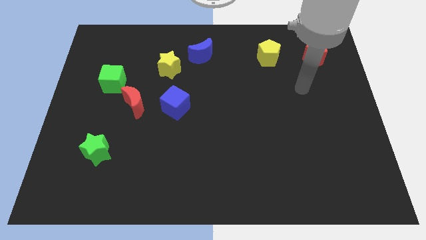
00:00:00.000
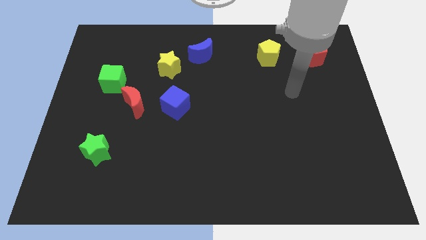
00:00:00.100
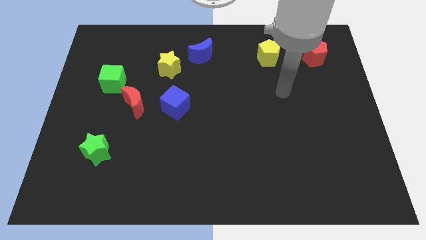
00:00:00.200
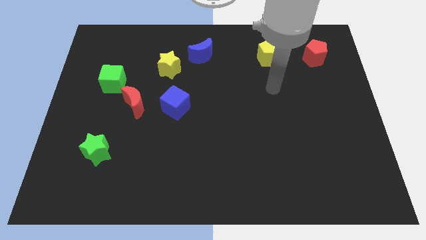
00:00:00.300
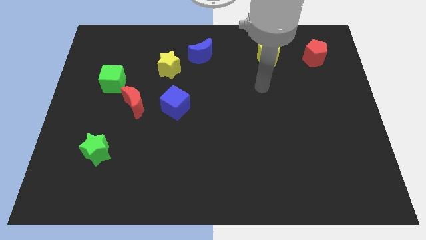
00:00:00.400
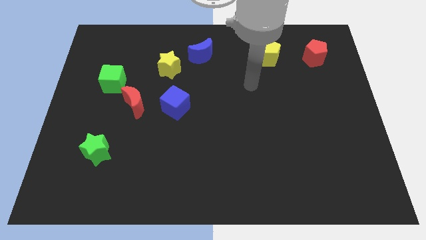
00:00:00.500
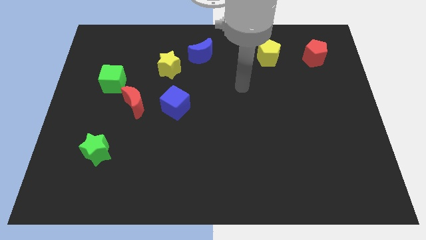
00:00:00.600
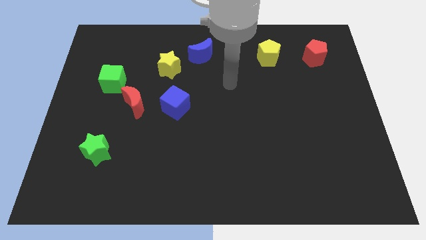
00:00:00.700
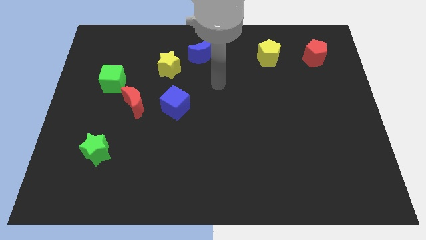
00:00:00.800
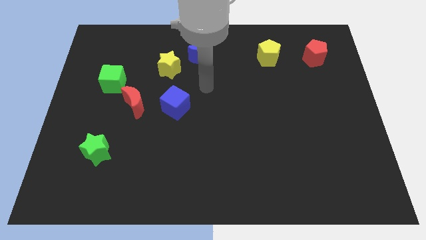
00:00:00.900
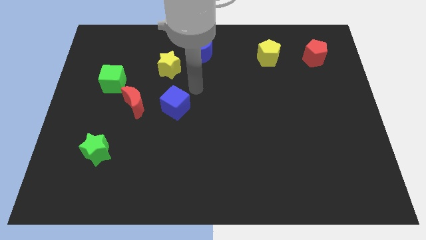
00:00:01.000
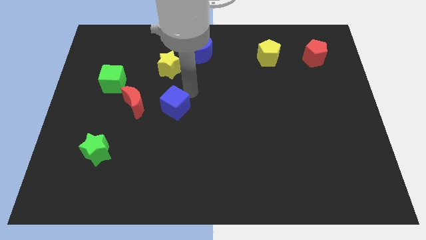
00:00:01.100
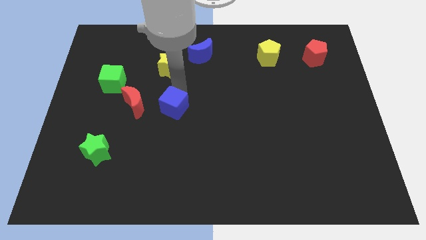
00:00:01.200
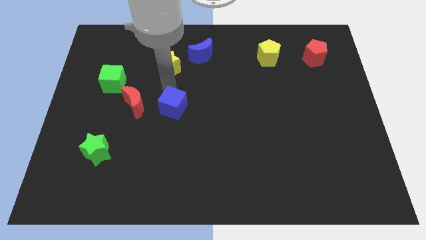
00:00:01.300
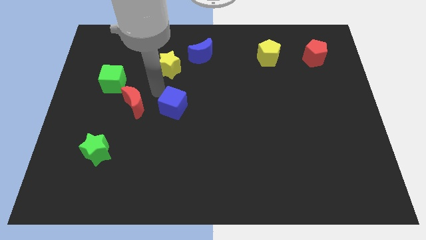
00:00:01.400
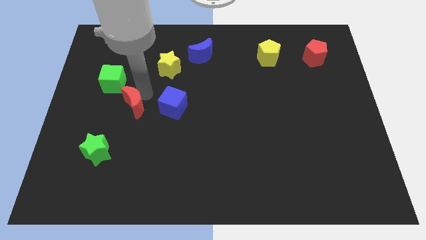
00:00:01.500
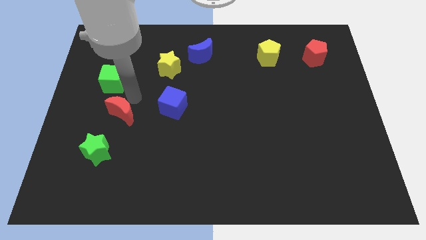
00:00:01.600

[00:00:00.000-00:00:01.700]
separate the green cube from the red moon

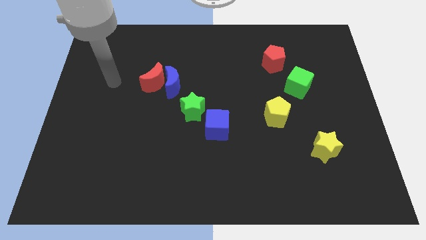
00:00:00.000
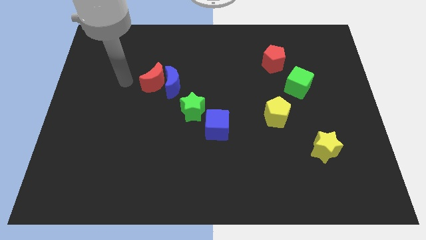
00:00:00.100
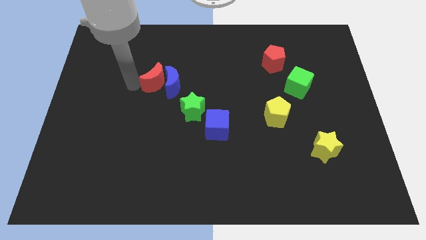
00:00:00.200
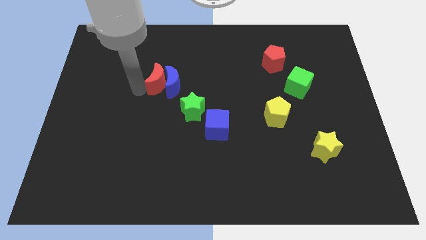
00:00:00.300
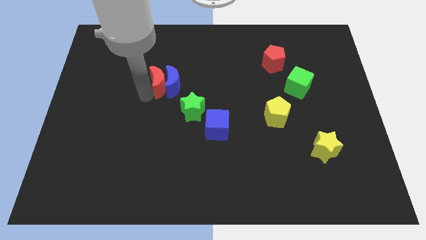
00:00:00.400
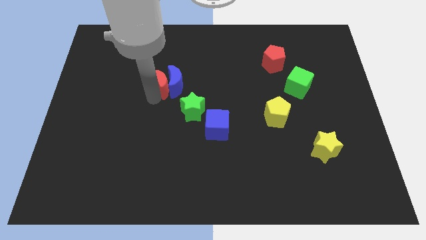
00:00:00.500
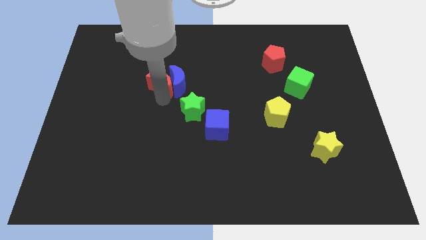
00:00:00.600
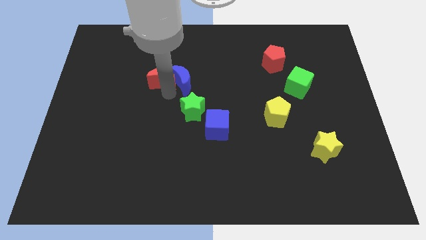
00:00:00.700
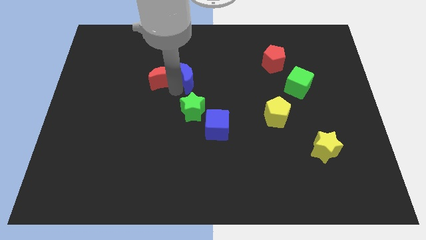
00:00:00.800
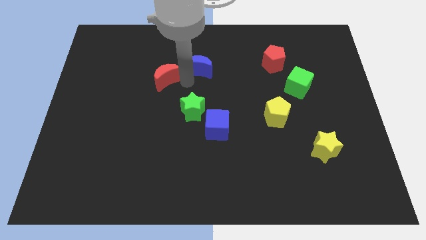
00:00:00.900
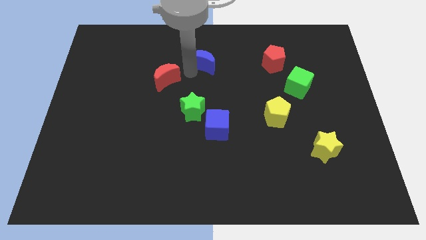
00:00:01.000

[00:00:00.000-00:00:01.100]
move the red moon away from the blue moon

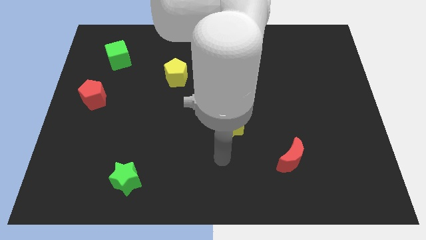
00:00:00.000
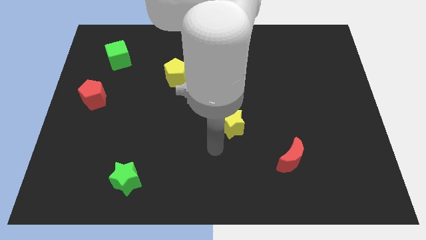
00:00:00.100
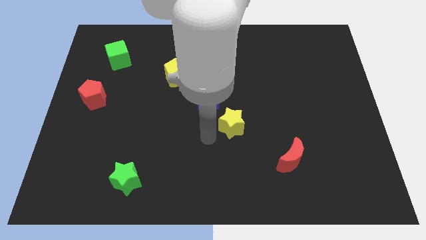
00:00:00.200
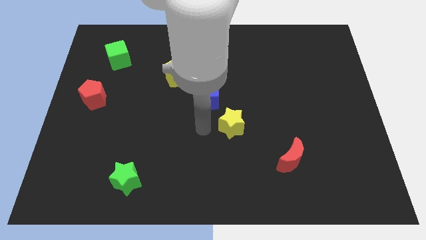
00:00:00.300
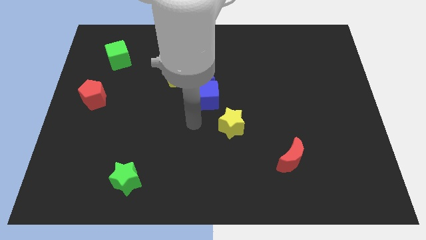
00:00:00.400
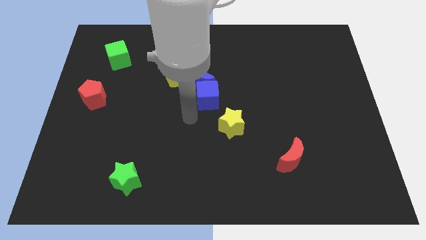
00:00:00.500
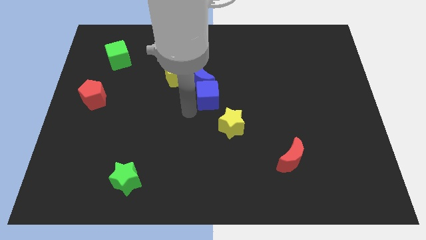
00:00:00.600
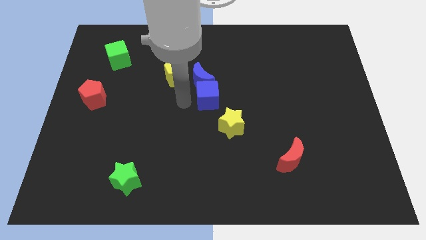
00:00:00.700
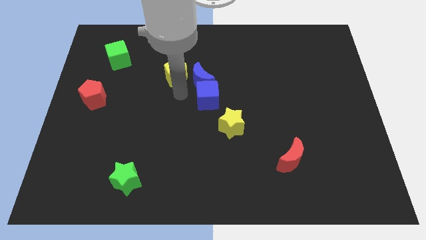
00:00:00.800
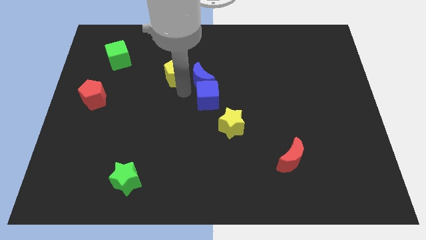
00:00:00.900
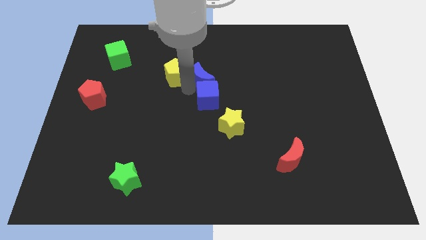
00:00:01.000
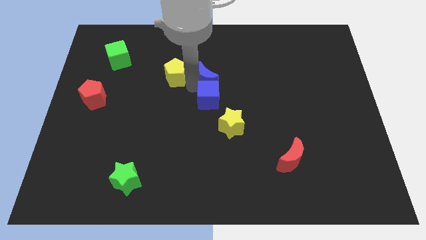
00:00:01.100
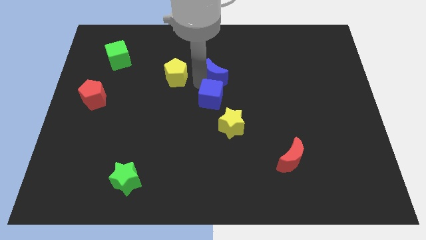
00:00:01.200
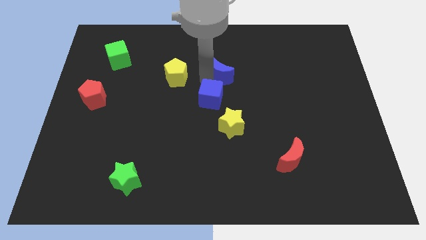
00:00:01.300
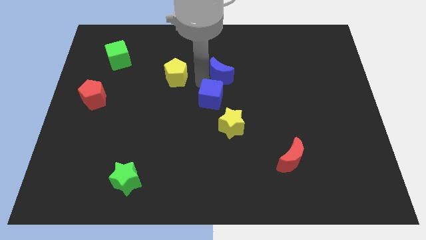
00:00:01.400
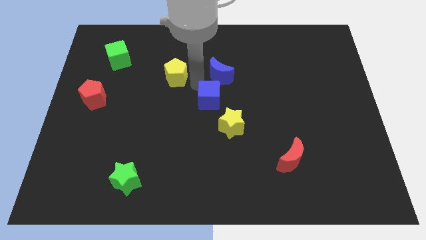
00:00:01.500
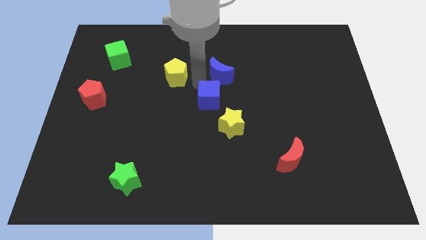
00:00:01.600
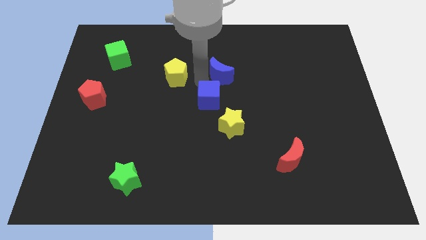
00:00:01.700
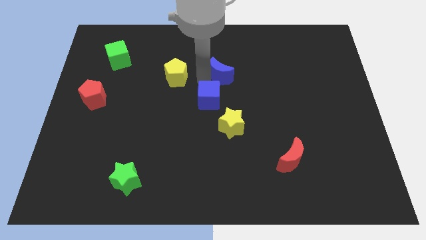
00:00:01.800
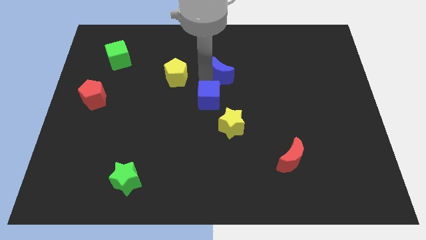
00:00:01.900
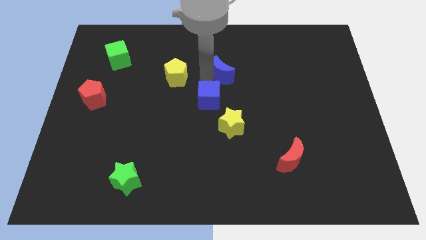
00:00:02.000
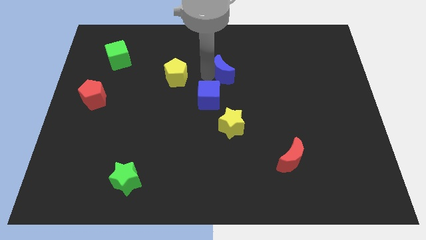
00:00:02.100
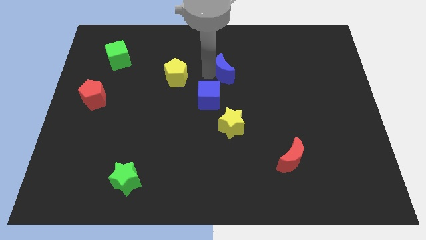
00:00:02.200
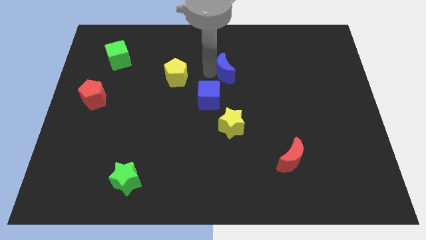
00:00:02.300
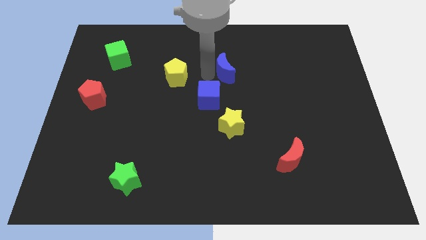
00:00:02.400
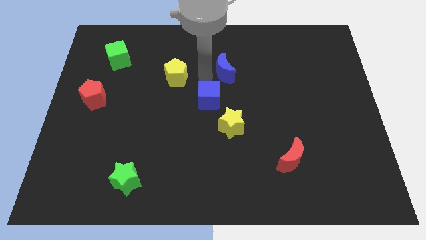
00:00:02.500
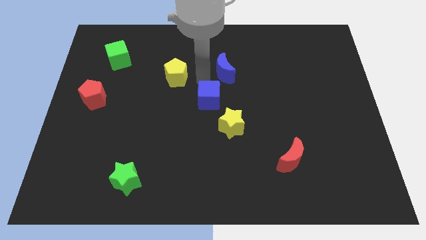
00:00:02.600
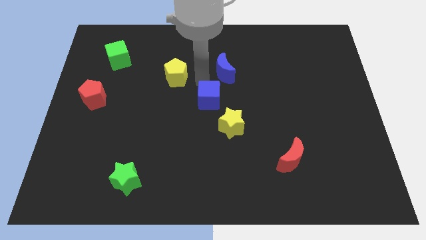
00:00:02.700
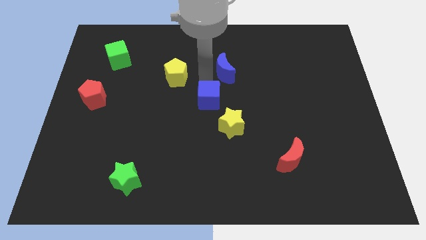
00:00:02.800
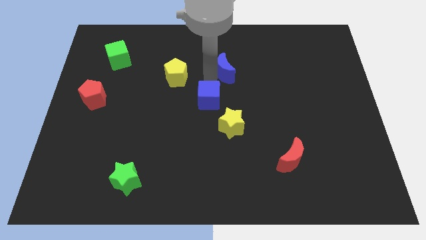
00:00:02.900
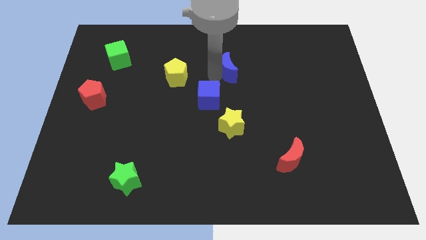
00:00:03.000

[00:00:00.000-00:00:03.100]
separate the blue moon from the blue cube and yellow pentagon

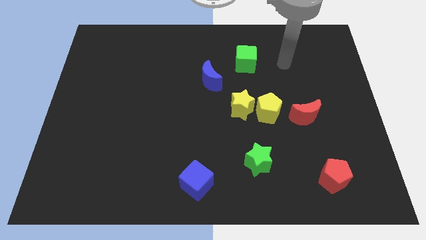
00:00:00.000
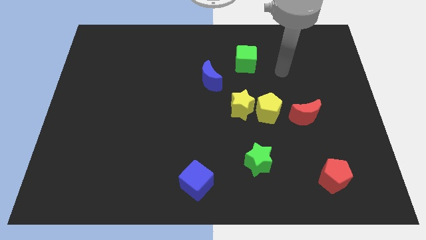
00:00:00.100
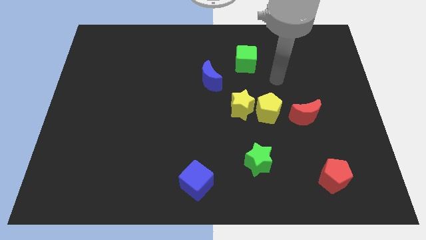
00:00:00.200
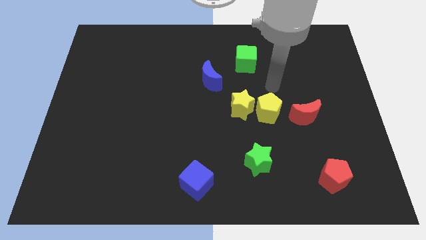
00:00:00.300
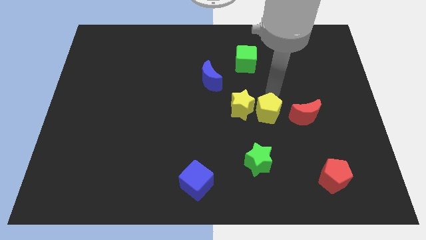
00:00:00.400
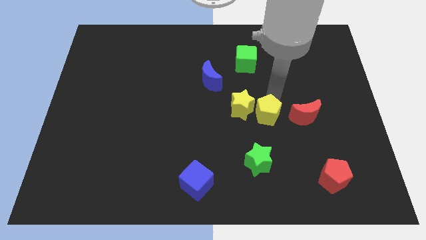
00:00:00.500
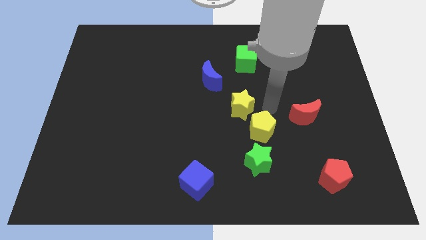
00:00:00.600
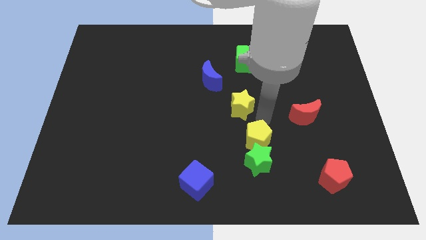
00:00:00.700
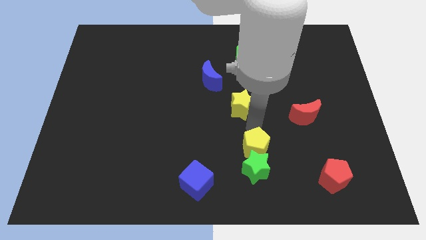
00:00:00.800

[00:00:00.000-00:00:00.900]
separate the yellow star from the yellow pentagon

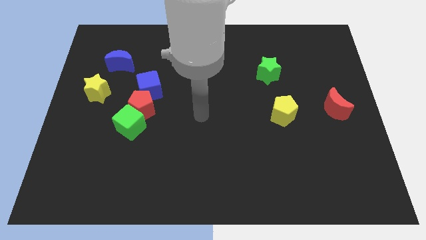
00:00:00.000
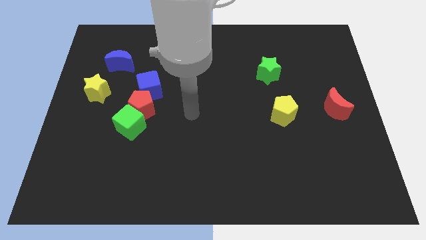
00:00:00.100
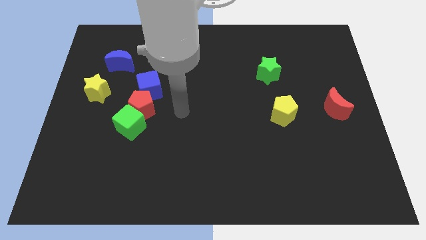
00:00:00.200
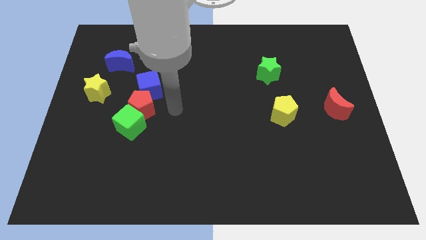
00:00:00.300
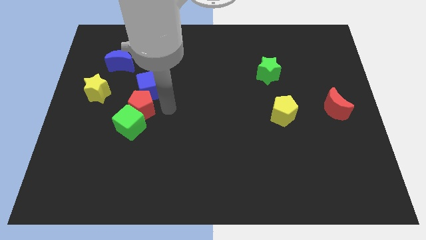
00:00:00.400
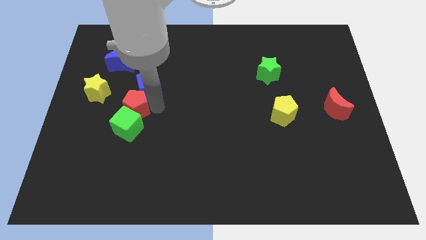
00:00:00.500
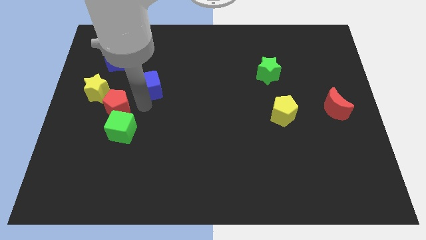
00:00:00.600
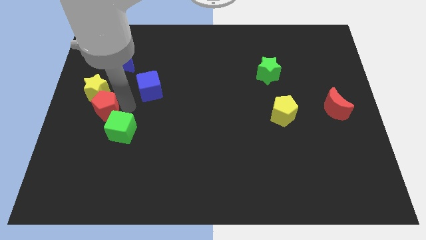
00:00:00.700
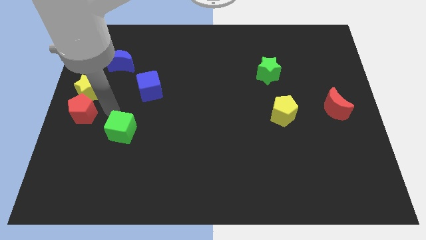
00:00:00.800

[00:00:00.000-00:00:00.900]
move the green cube away from the red pentagon

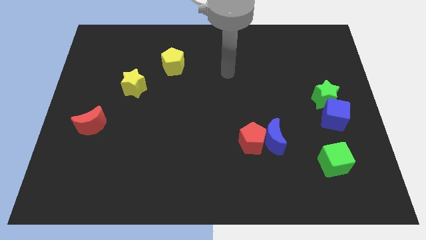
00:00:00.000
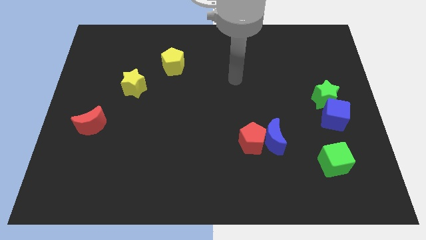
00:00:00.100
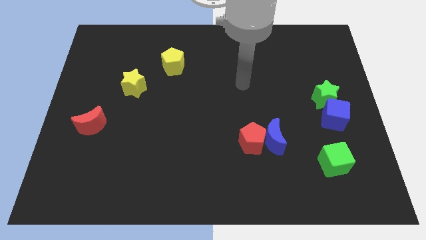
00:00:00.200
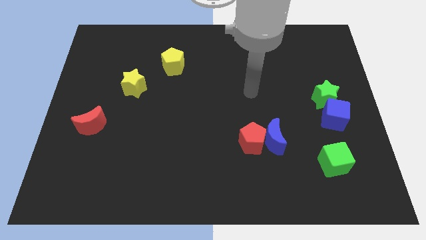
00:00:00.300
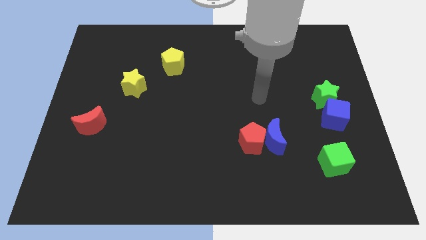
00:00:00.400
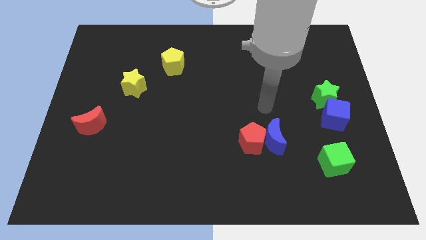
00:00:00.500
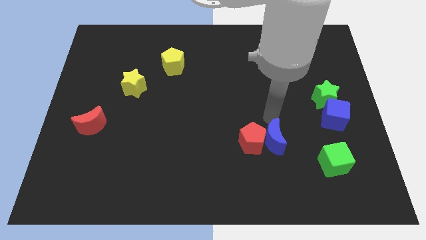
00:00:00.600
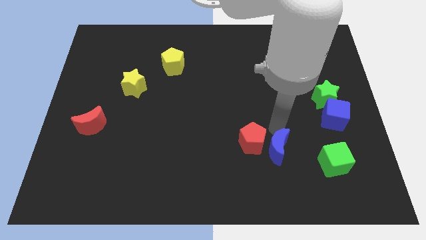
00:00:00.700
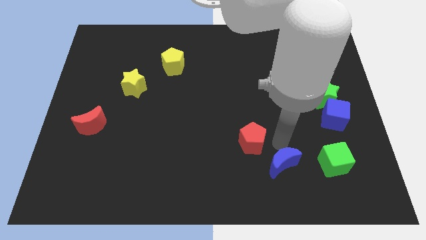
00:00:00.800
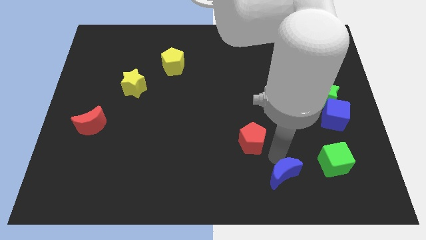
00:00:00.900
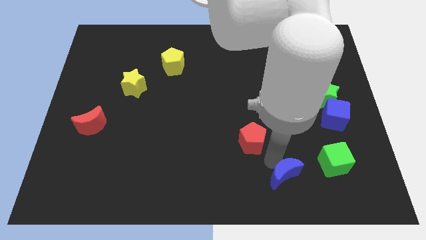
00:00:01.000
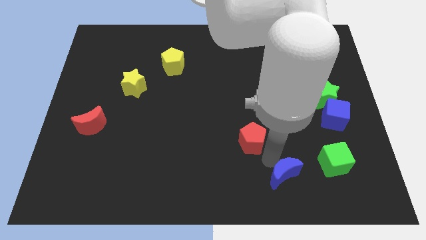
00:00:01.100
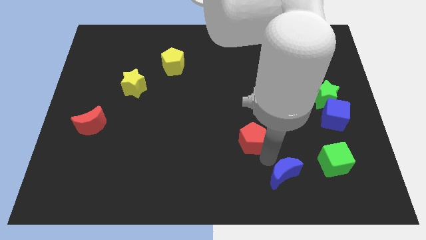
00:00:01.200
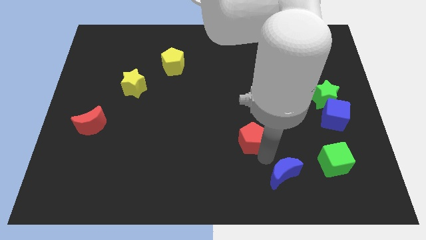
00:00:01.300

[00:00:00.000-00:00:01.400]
separate the red pentagon from the blue moon

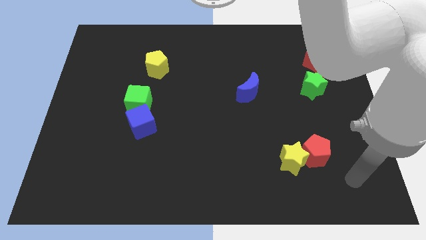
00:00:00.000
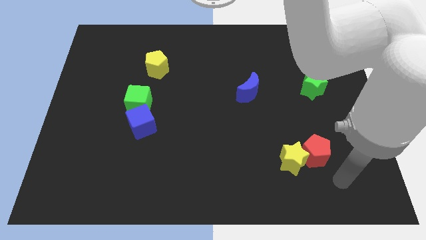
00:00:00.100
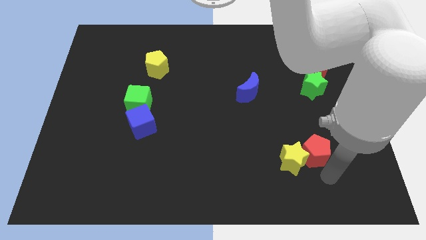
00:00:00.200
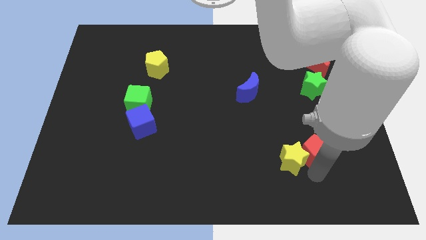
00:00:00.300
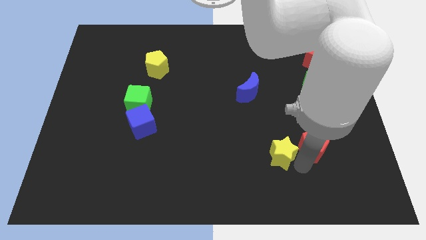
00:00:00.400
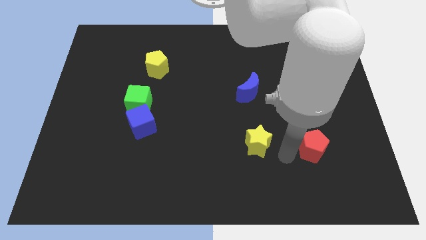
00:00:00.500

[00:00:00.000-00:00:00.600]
separate the red pentagon from the yellow star
